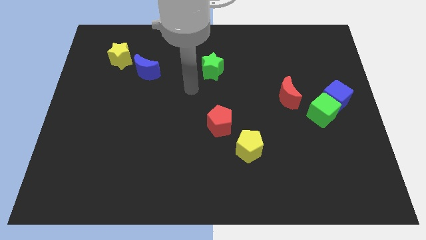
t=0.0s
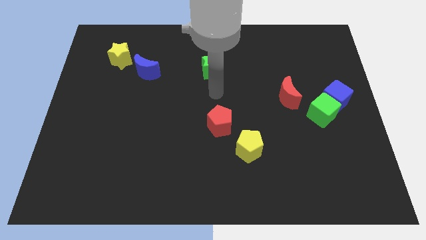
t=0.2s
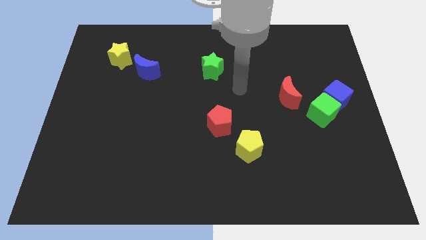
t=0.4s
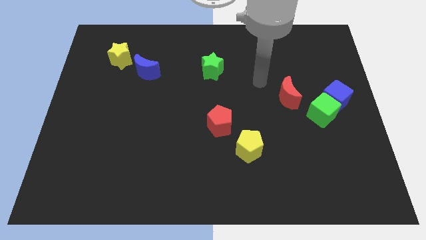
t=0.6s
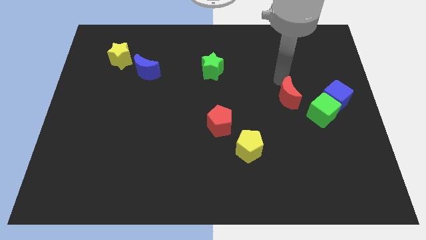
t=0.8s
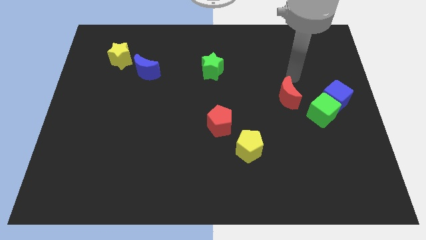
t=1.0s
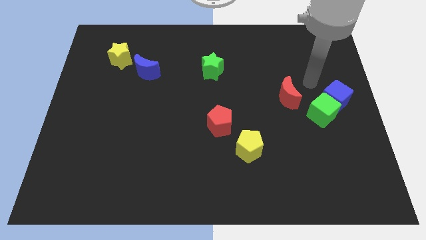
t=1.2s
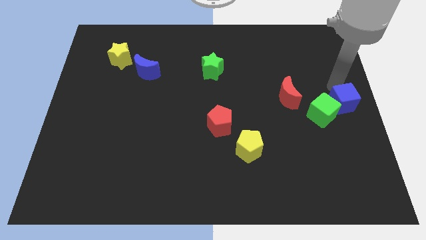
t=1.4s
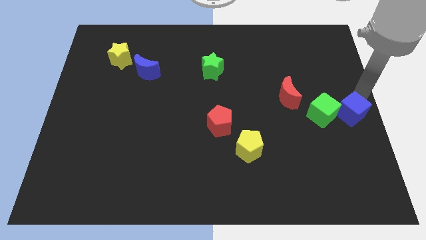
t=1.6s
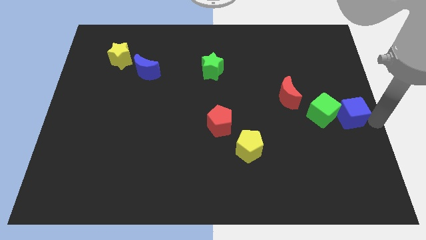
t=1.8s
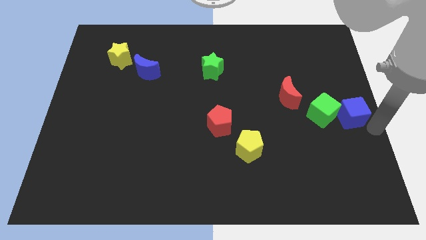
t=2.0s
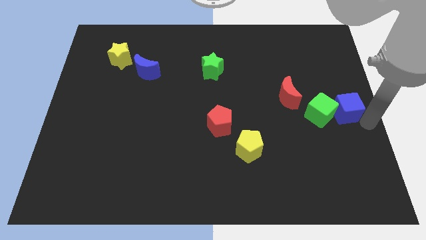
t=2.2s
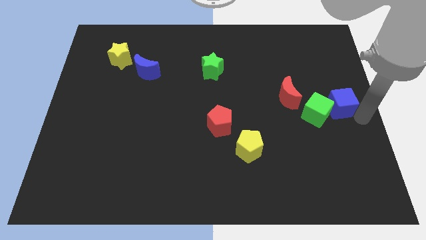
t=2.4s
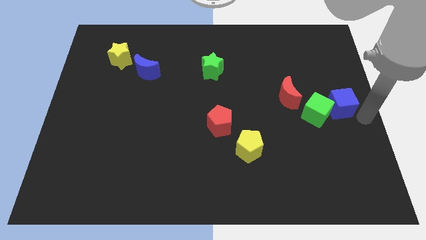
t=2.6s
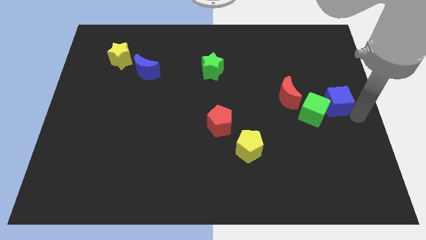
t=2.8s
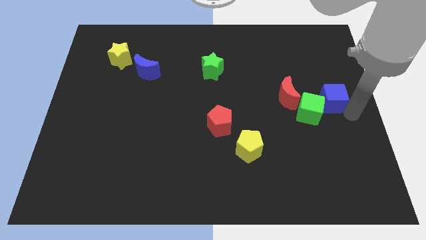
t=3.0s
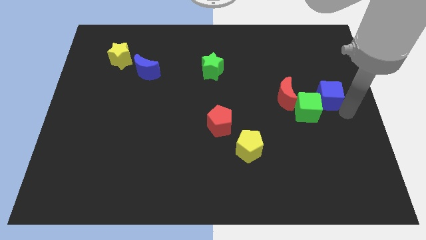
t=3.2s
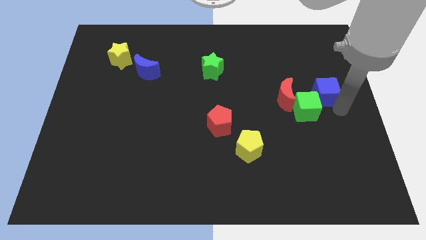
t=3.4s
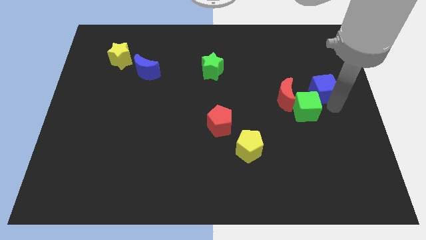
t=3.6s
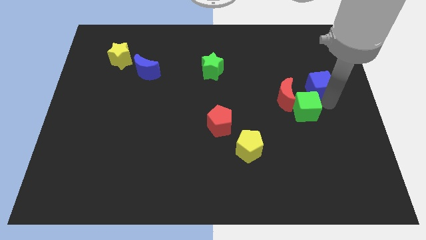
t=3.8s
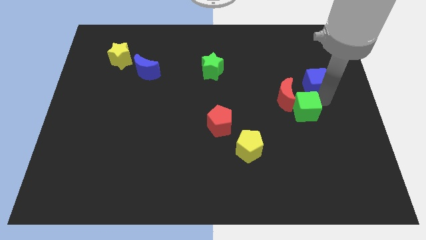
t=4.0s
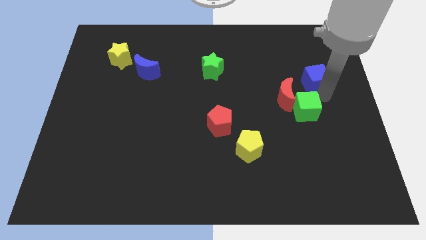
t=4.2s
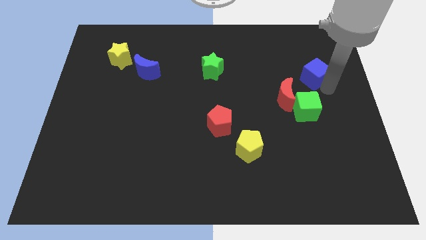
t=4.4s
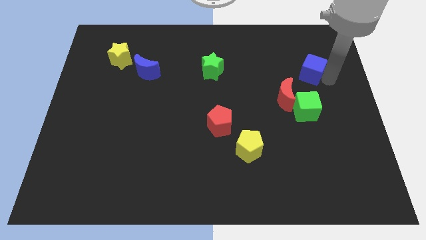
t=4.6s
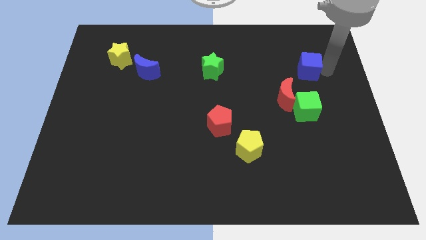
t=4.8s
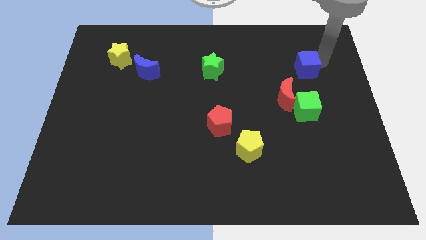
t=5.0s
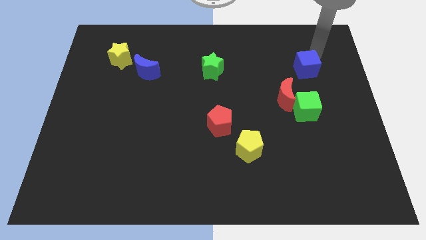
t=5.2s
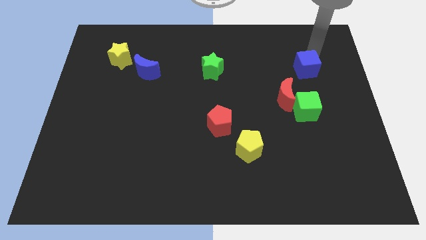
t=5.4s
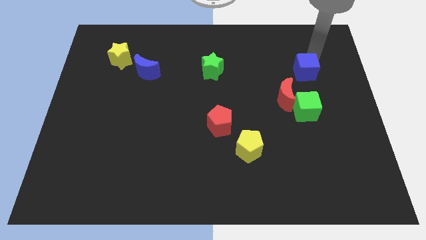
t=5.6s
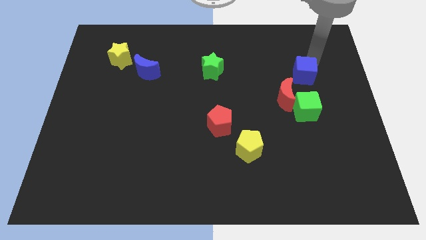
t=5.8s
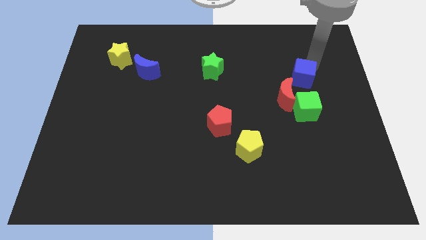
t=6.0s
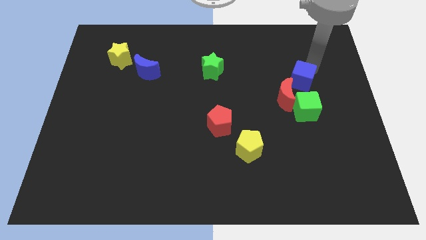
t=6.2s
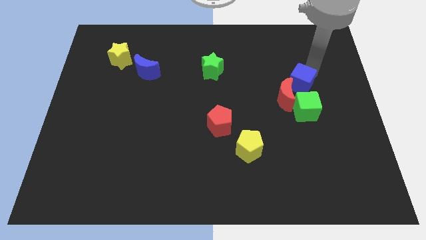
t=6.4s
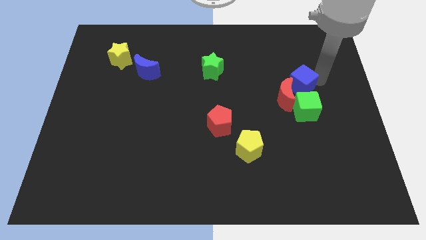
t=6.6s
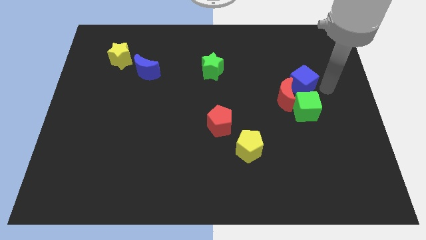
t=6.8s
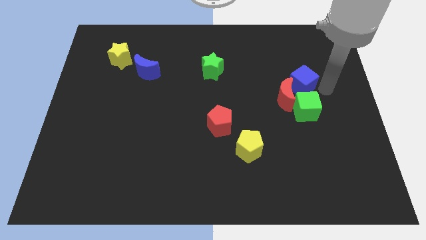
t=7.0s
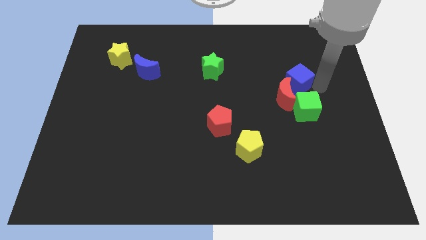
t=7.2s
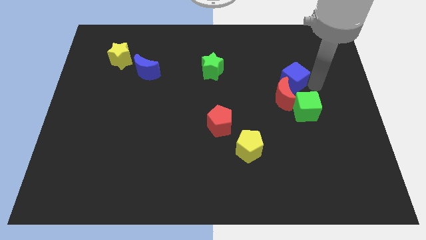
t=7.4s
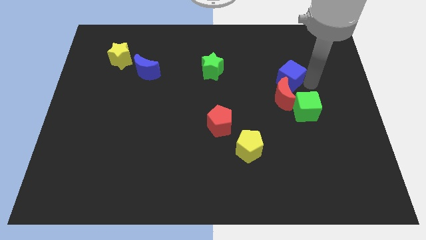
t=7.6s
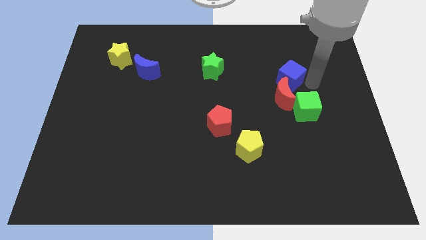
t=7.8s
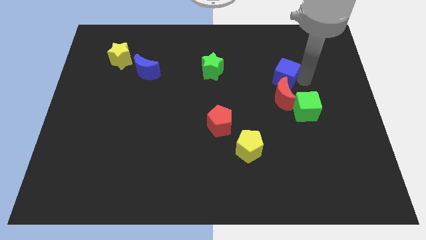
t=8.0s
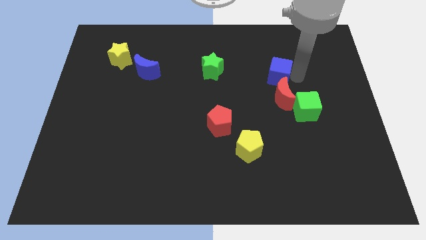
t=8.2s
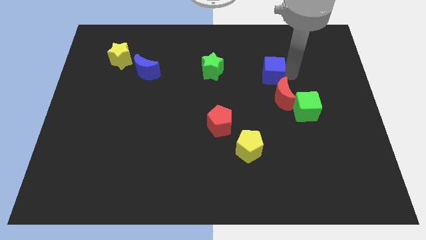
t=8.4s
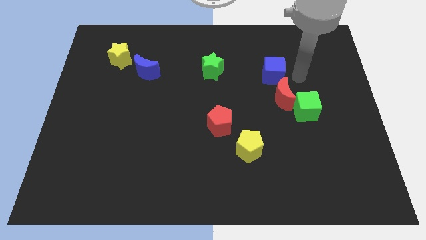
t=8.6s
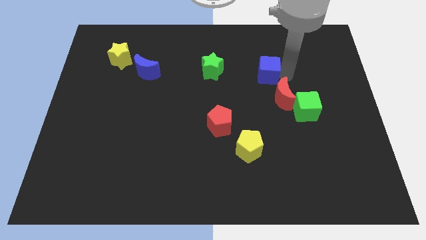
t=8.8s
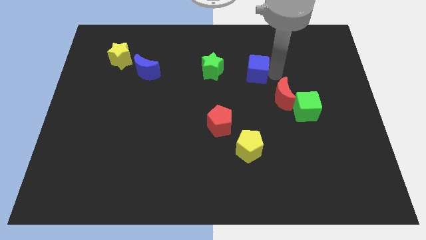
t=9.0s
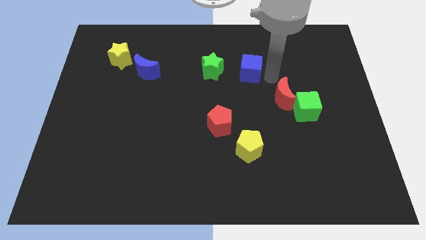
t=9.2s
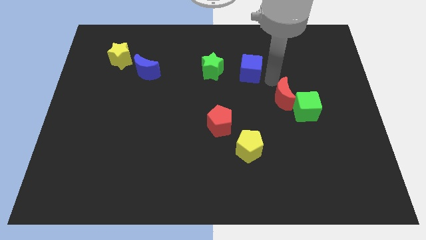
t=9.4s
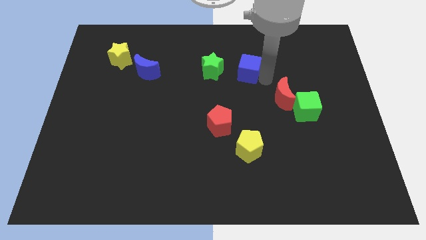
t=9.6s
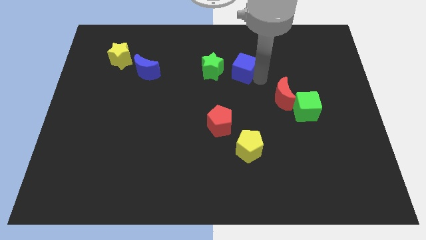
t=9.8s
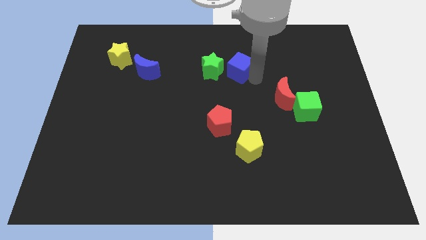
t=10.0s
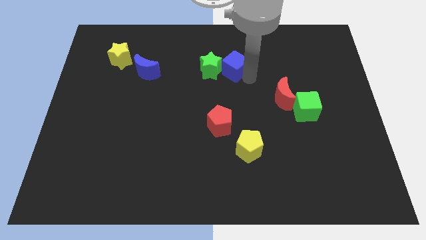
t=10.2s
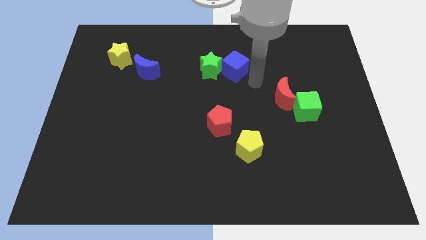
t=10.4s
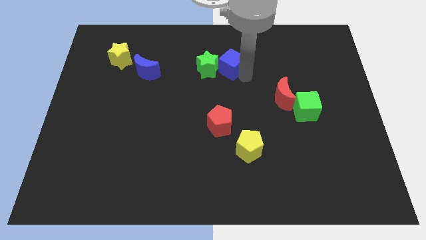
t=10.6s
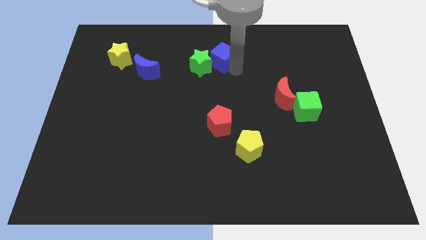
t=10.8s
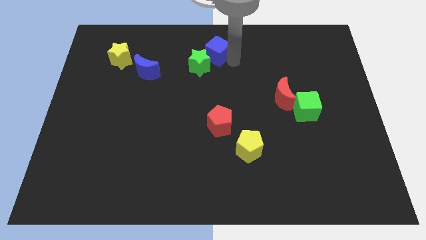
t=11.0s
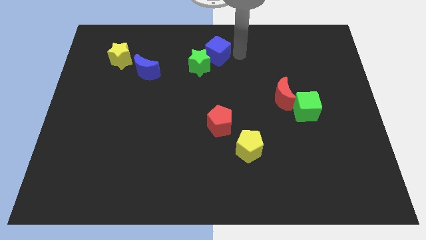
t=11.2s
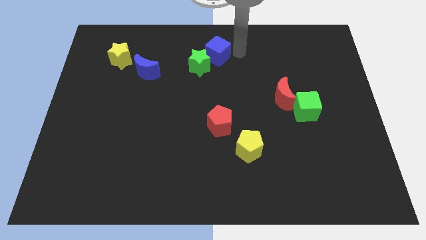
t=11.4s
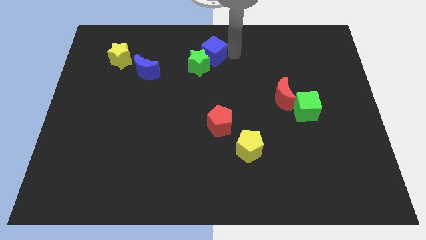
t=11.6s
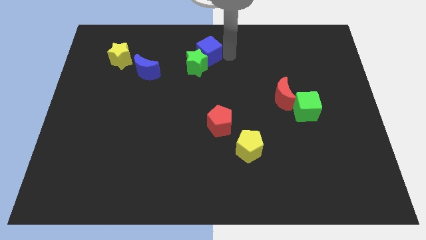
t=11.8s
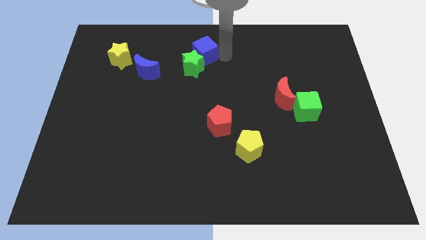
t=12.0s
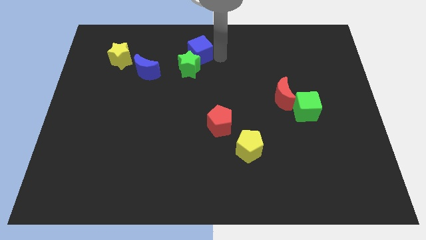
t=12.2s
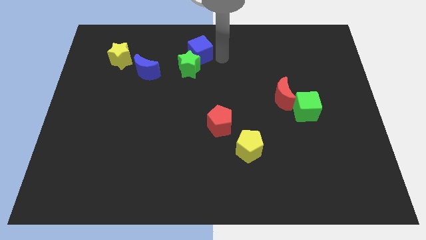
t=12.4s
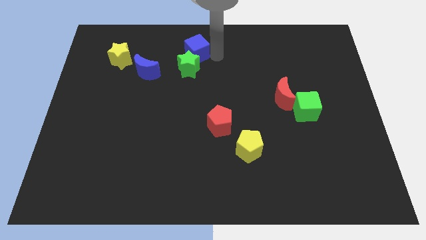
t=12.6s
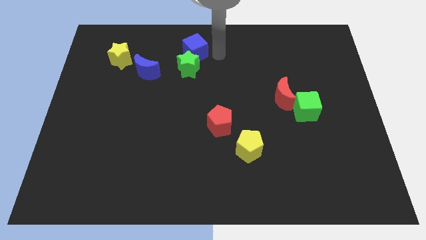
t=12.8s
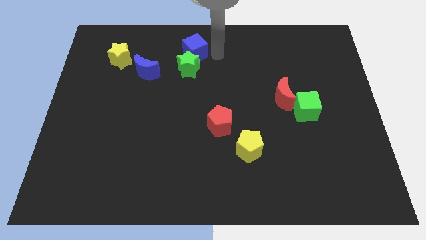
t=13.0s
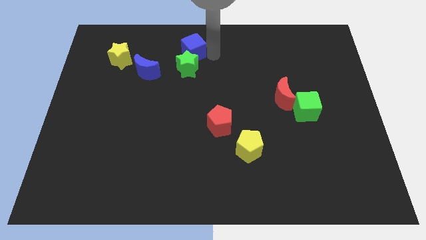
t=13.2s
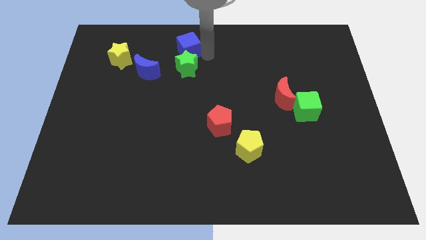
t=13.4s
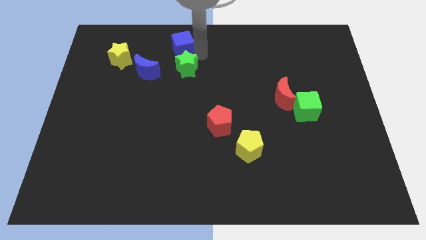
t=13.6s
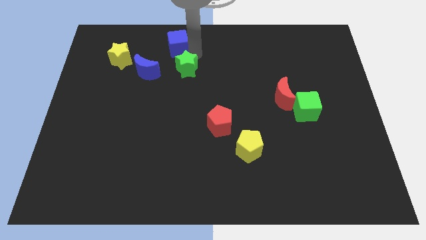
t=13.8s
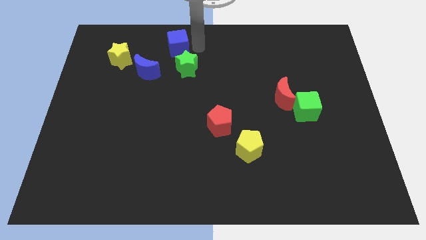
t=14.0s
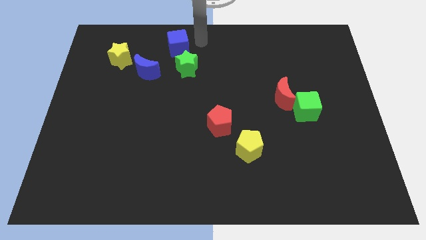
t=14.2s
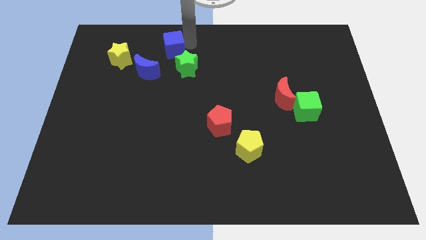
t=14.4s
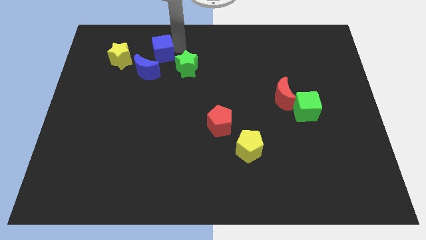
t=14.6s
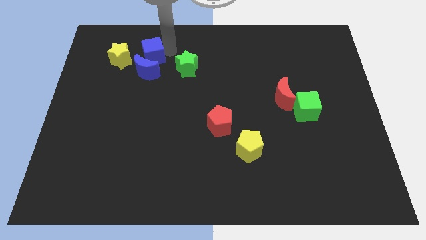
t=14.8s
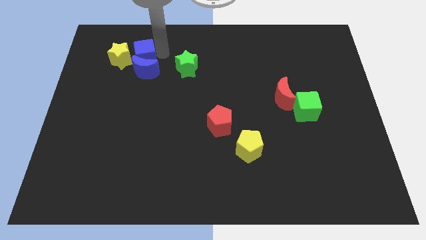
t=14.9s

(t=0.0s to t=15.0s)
push the blue cube towards the yellow star

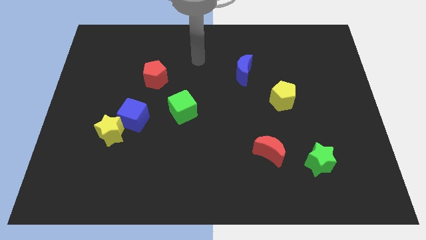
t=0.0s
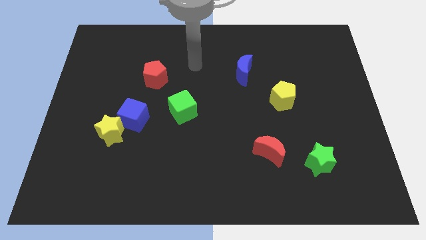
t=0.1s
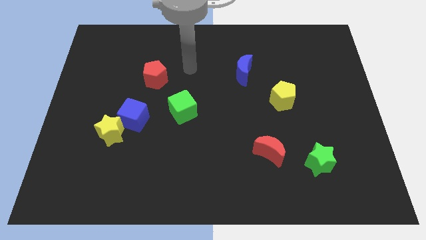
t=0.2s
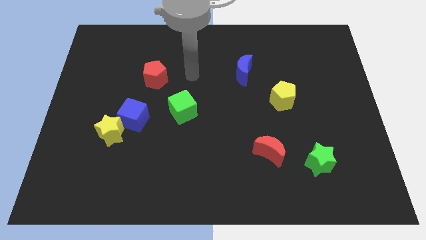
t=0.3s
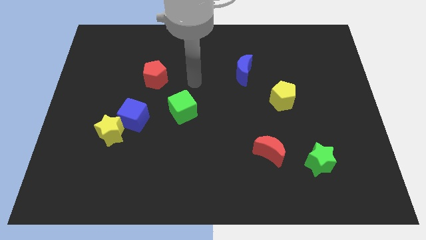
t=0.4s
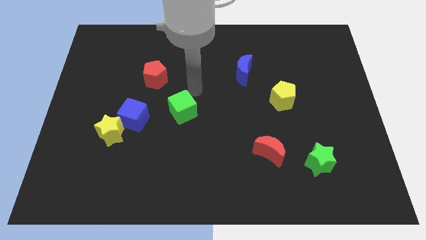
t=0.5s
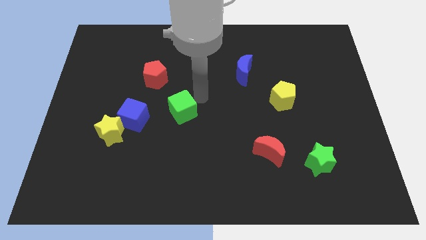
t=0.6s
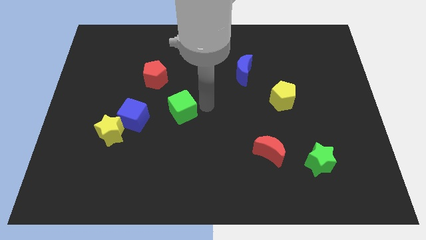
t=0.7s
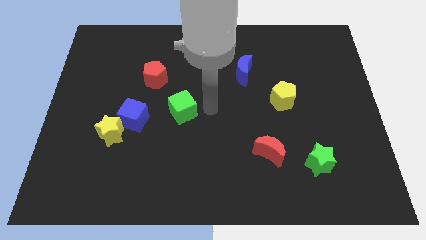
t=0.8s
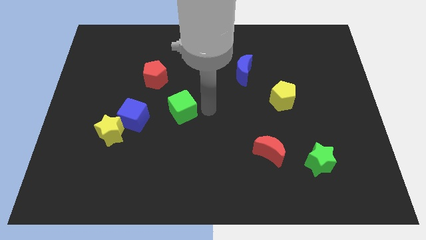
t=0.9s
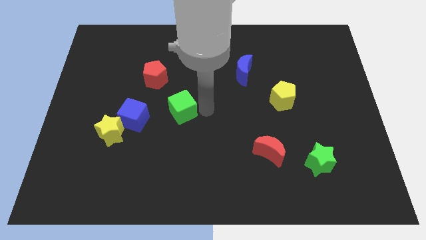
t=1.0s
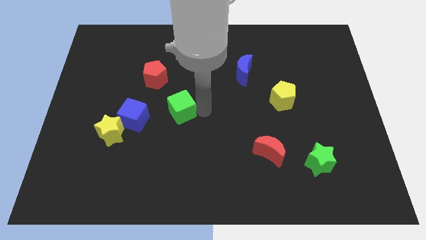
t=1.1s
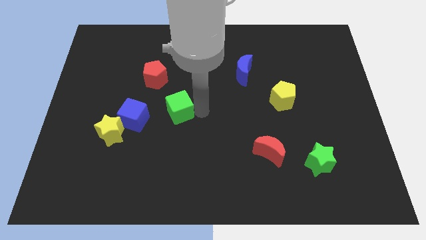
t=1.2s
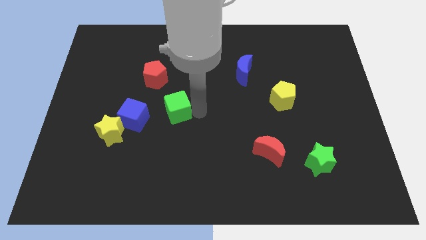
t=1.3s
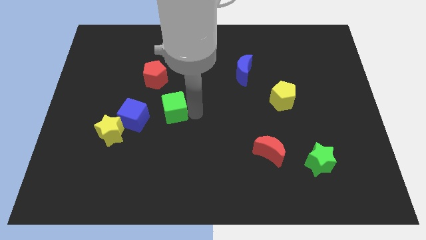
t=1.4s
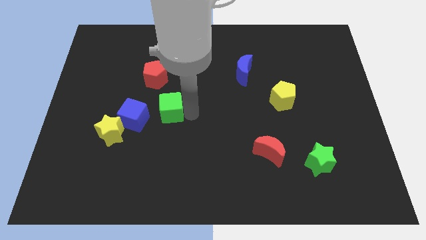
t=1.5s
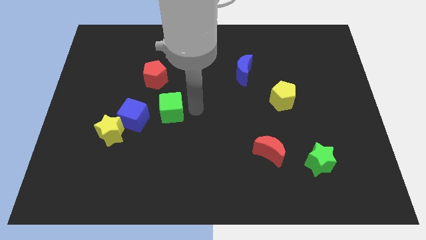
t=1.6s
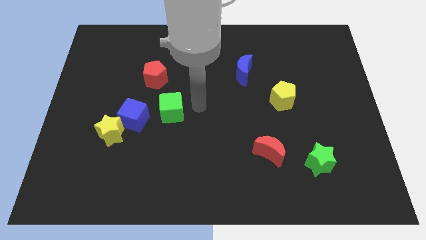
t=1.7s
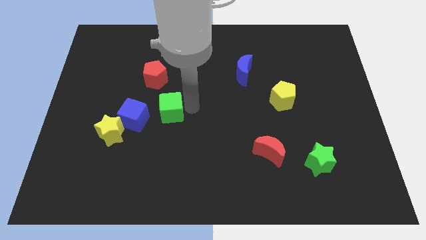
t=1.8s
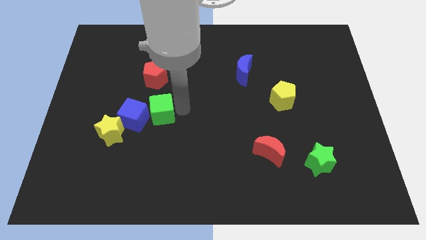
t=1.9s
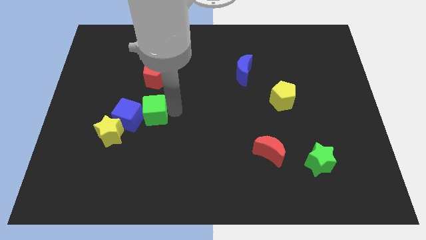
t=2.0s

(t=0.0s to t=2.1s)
slide the green cube close to the blue cube
